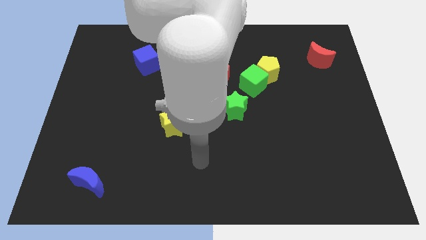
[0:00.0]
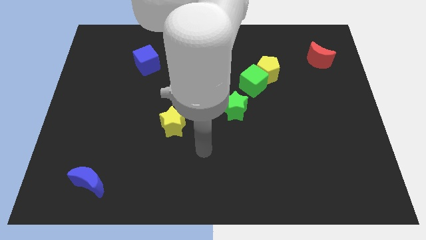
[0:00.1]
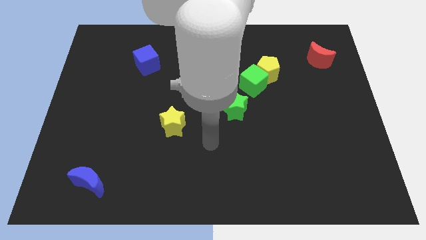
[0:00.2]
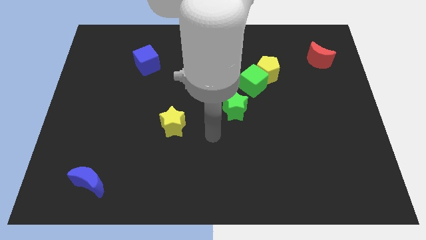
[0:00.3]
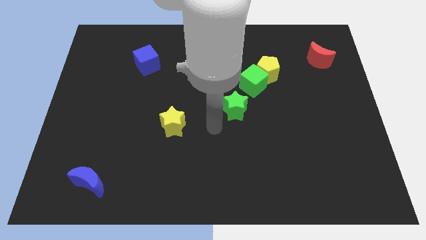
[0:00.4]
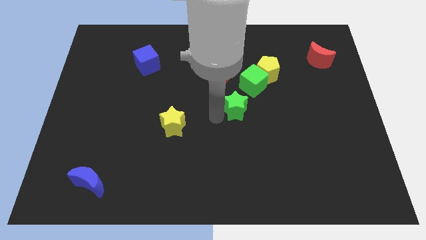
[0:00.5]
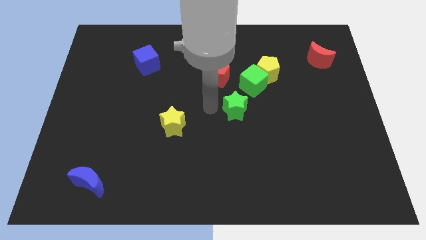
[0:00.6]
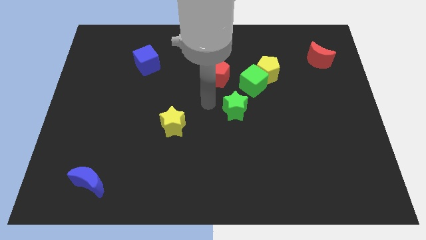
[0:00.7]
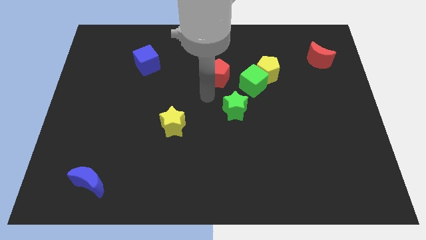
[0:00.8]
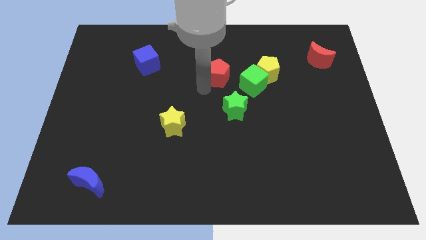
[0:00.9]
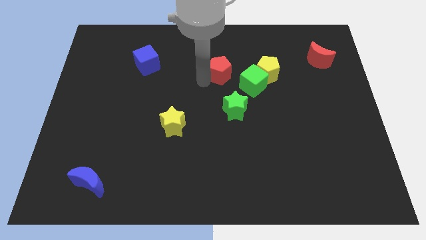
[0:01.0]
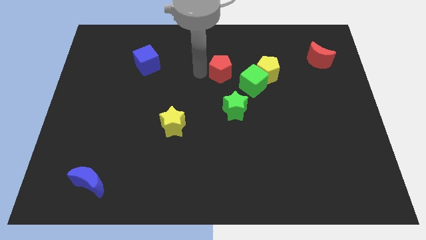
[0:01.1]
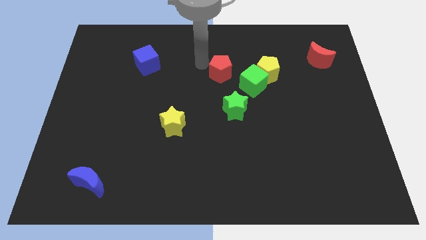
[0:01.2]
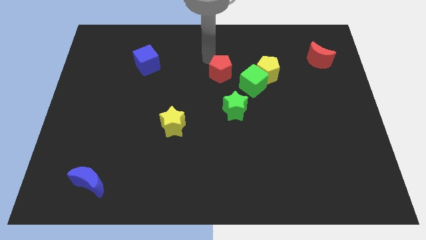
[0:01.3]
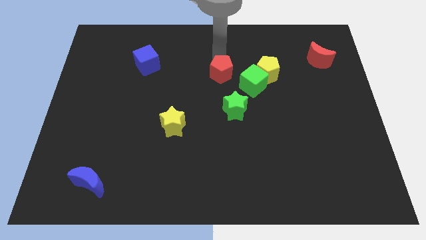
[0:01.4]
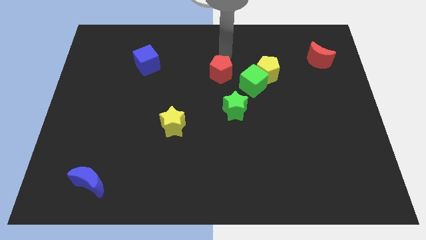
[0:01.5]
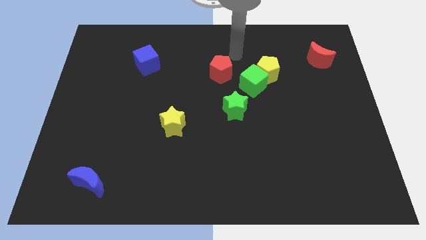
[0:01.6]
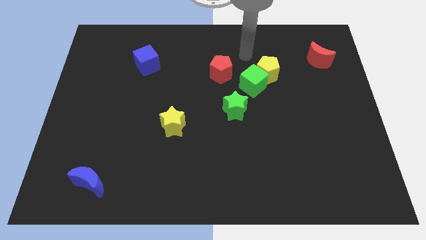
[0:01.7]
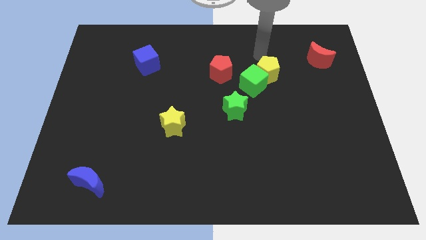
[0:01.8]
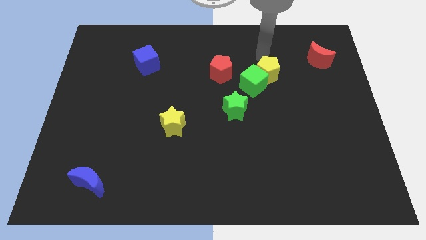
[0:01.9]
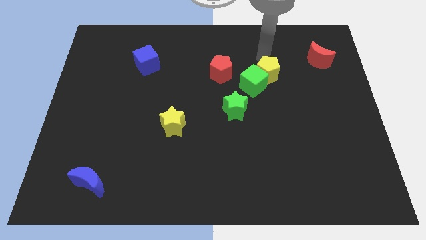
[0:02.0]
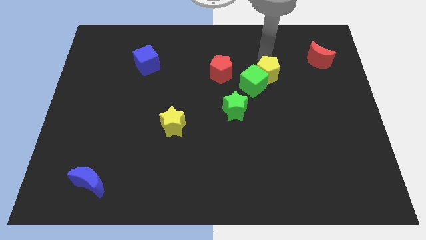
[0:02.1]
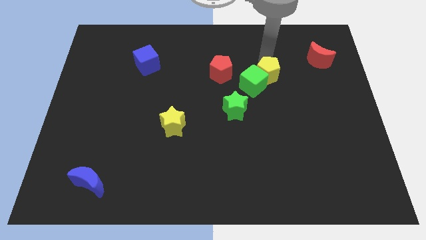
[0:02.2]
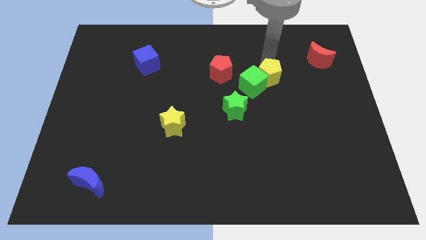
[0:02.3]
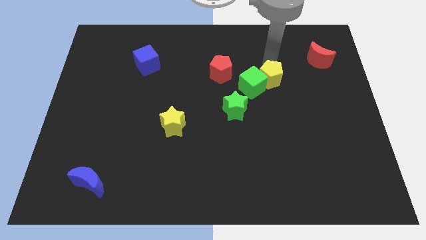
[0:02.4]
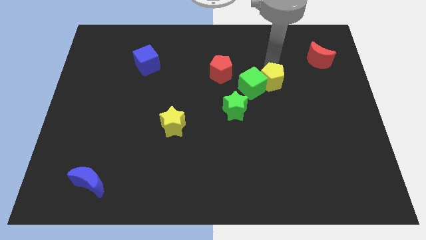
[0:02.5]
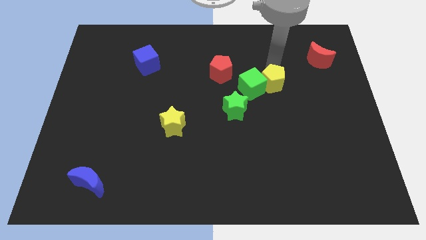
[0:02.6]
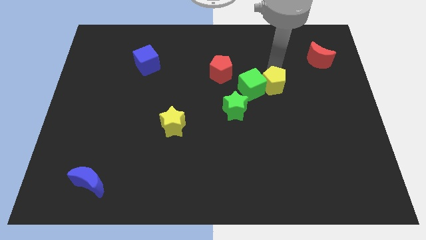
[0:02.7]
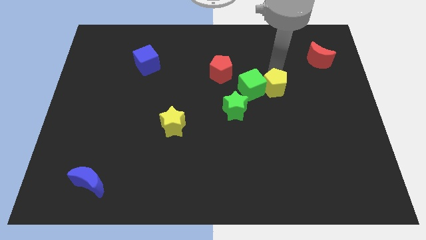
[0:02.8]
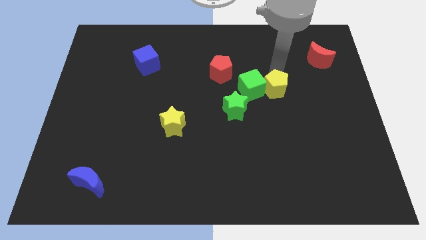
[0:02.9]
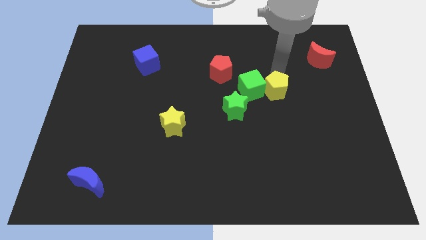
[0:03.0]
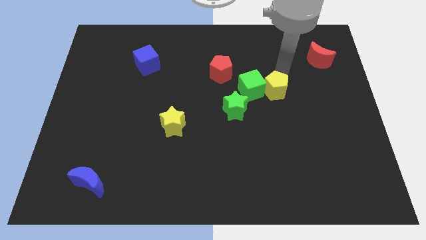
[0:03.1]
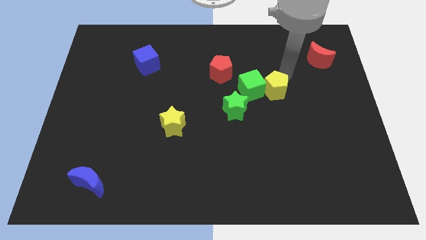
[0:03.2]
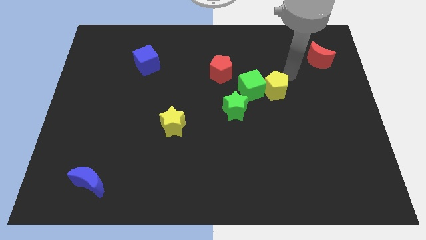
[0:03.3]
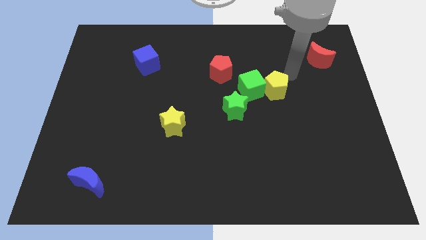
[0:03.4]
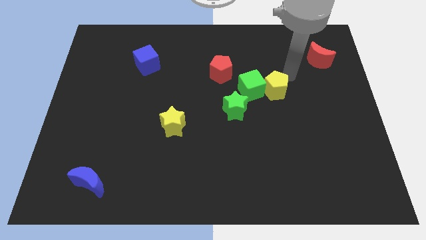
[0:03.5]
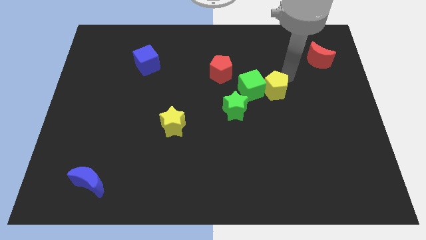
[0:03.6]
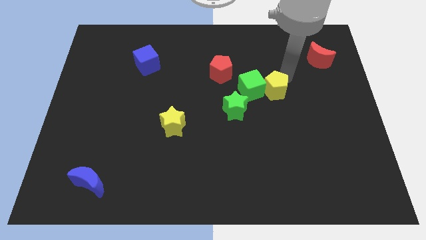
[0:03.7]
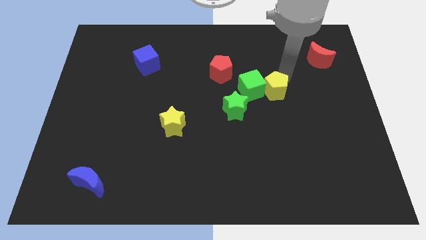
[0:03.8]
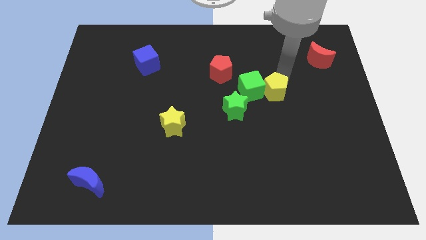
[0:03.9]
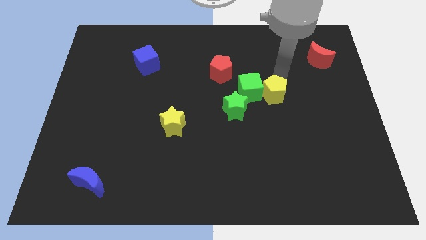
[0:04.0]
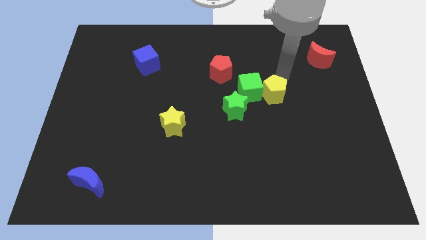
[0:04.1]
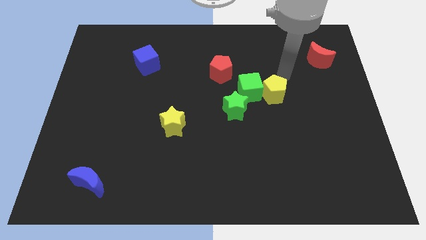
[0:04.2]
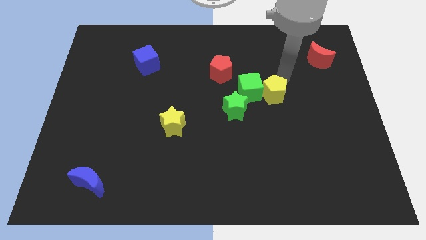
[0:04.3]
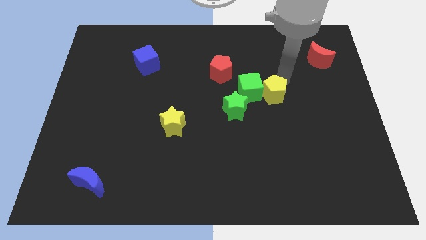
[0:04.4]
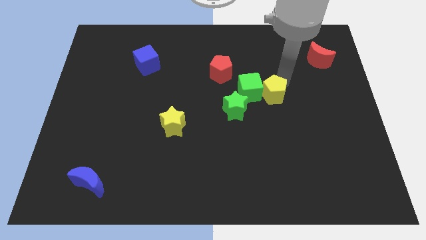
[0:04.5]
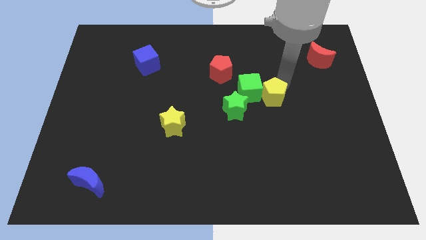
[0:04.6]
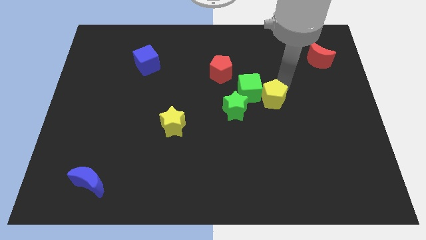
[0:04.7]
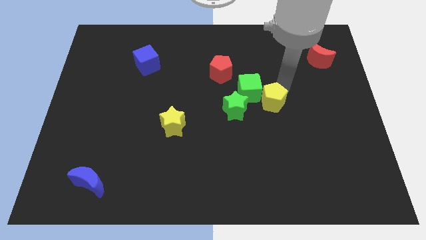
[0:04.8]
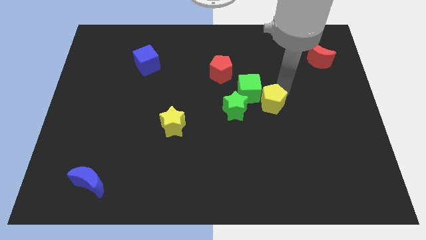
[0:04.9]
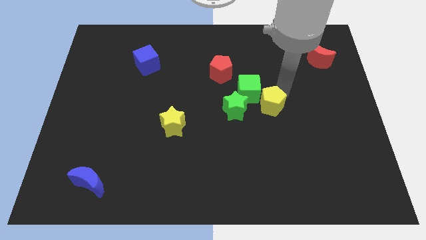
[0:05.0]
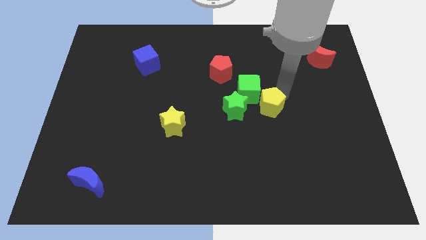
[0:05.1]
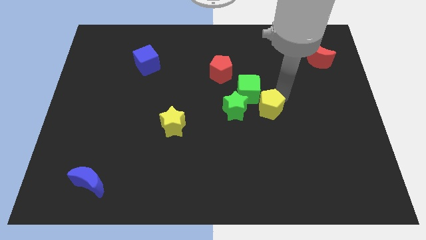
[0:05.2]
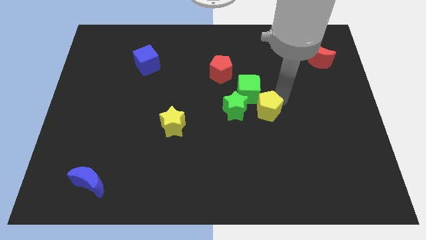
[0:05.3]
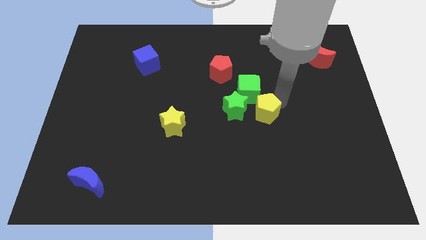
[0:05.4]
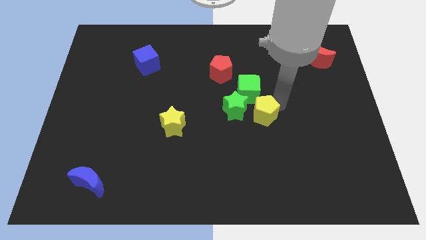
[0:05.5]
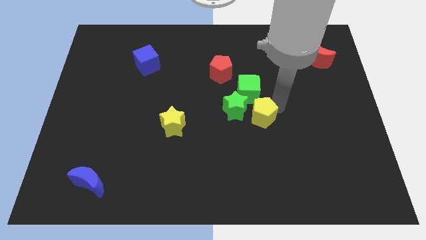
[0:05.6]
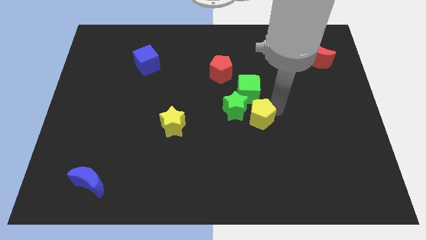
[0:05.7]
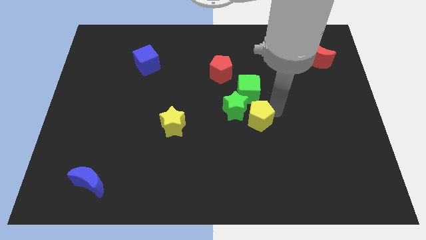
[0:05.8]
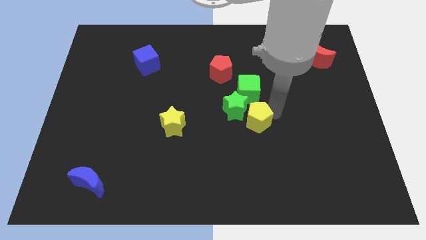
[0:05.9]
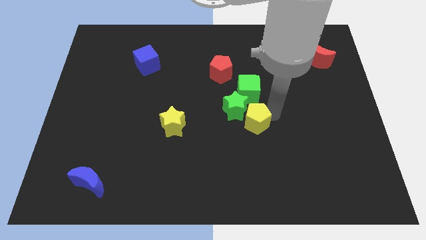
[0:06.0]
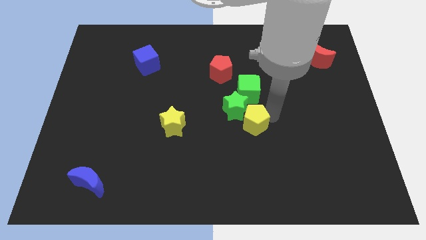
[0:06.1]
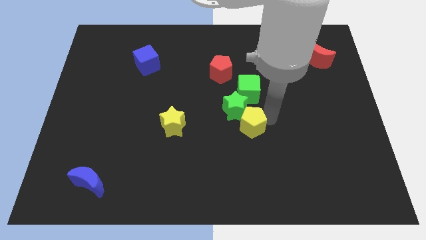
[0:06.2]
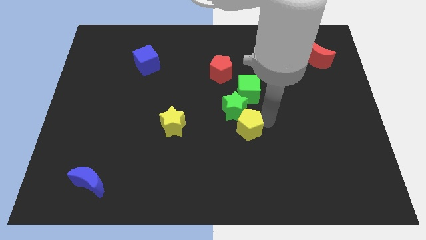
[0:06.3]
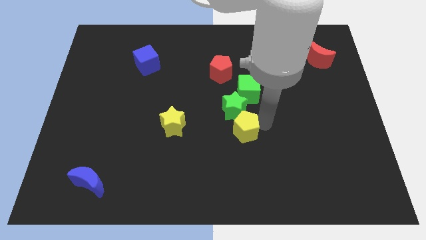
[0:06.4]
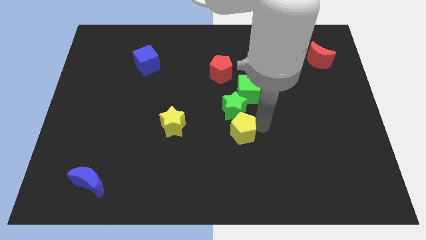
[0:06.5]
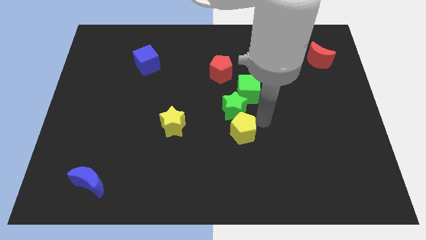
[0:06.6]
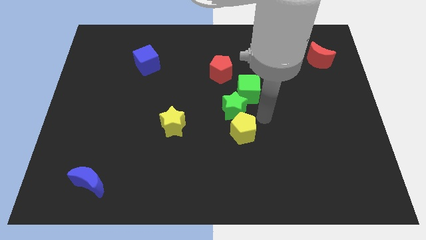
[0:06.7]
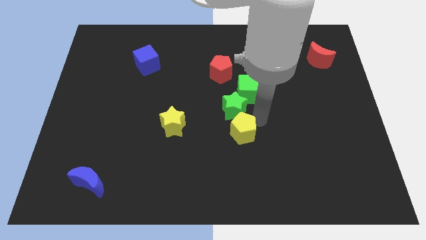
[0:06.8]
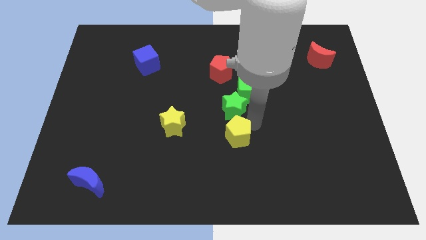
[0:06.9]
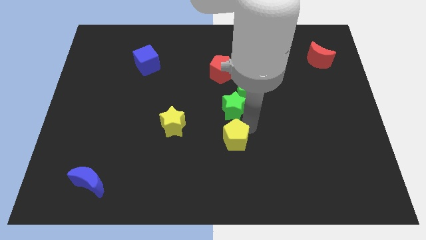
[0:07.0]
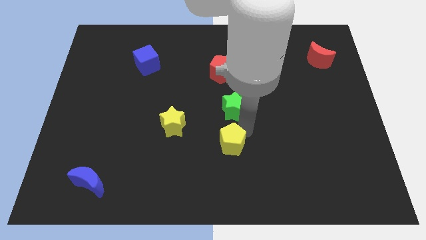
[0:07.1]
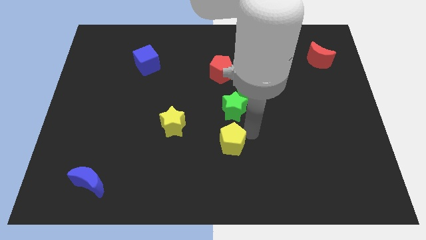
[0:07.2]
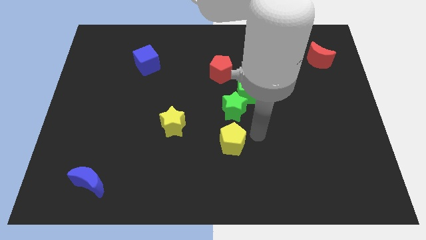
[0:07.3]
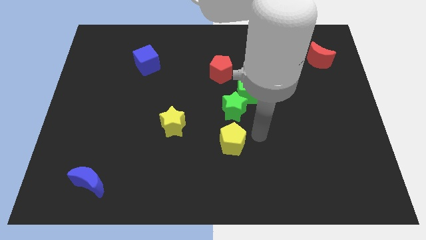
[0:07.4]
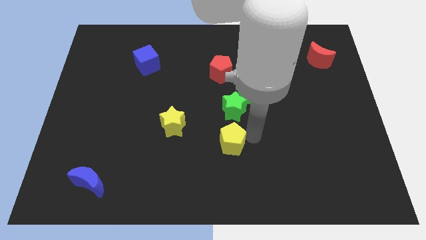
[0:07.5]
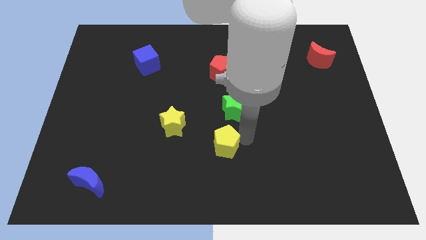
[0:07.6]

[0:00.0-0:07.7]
push the yellow pentagon down and to the left diagonally
